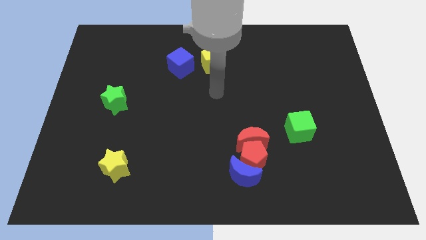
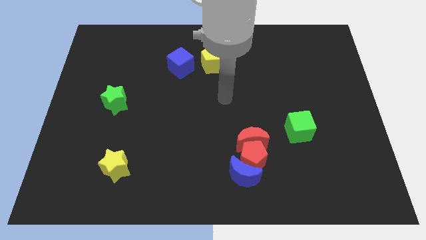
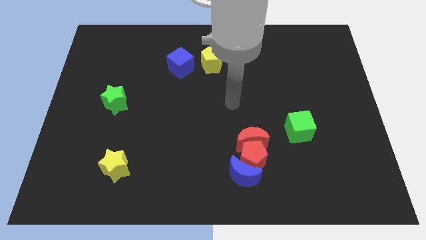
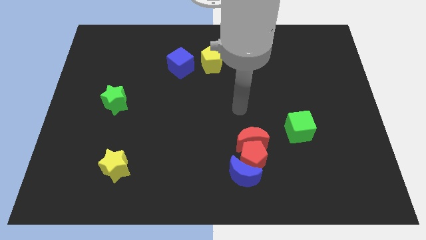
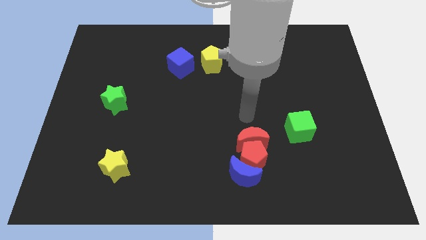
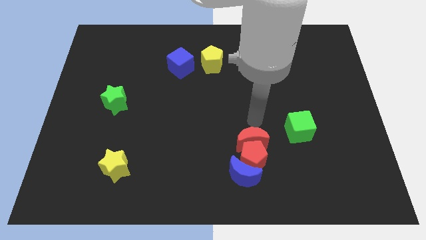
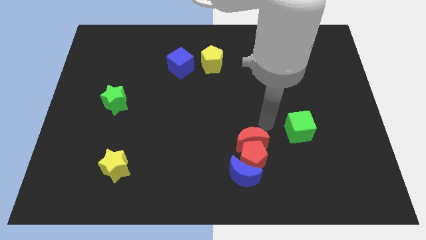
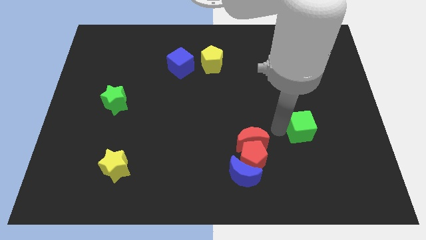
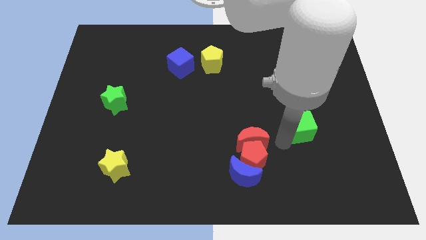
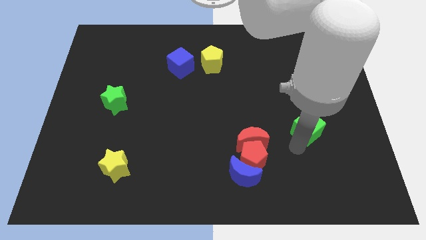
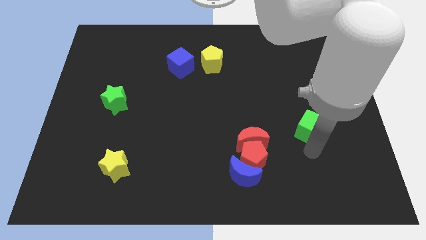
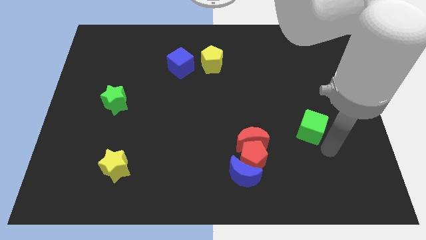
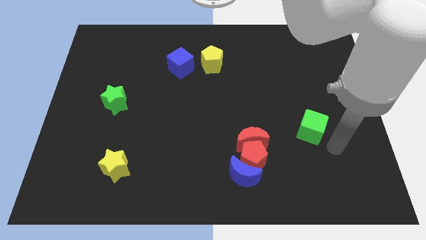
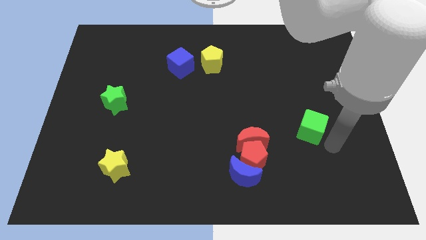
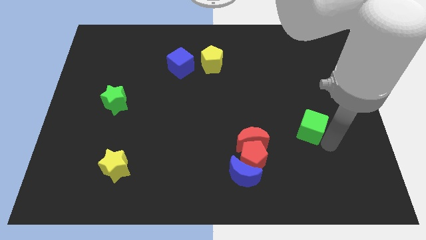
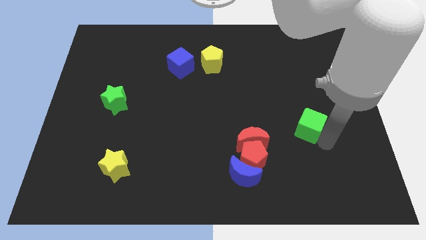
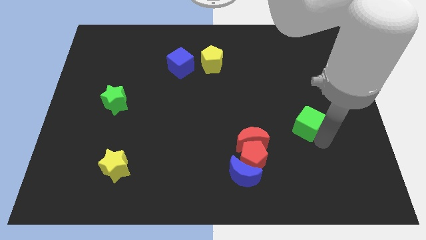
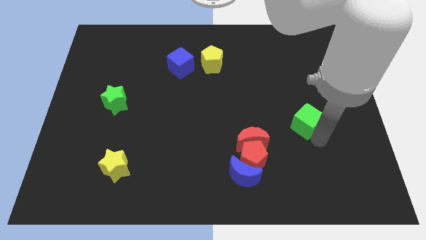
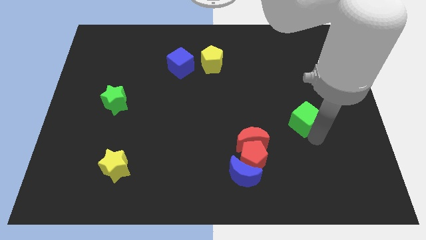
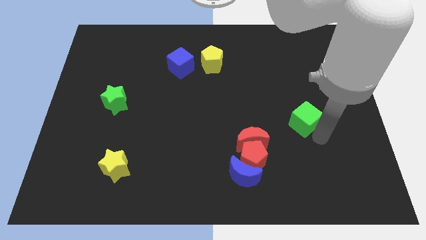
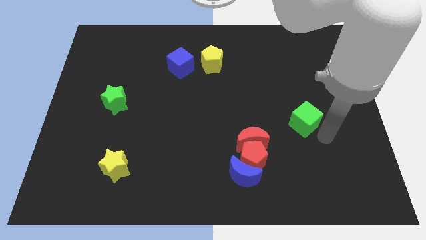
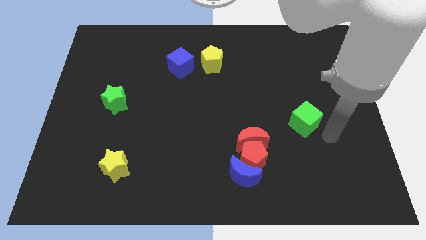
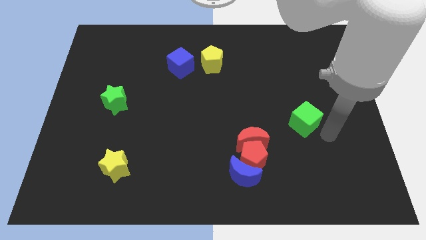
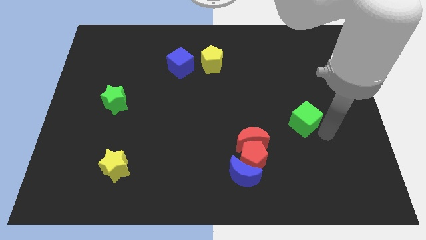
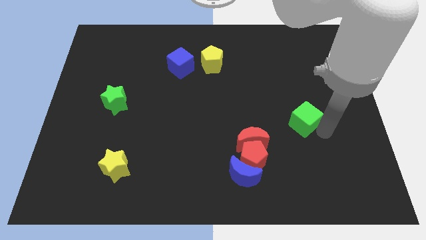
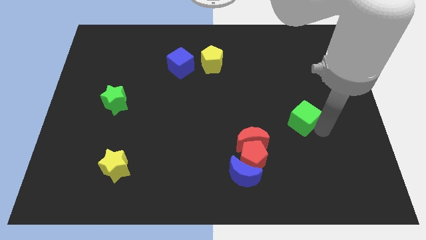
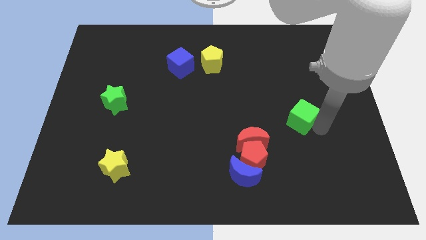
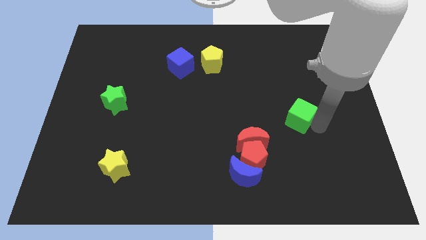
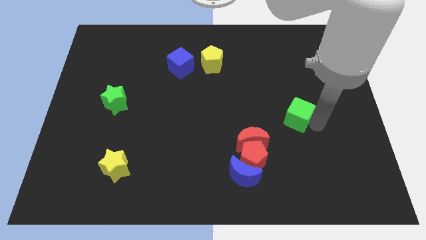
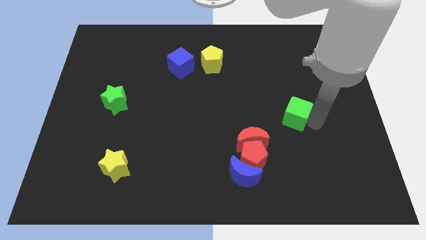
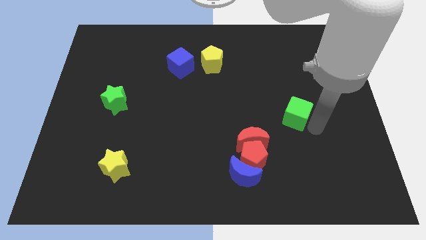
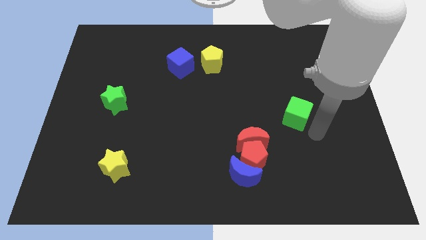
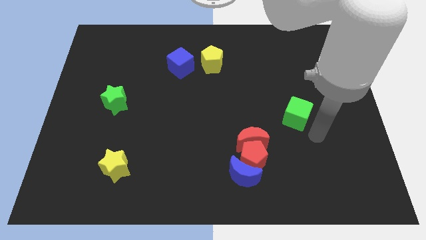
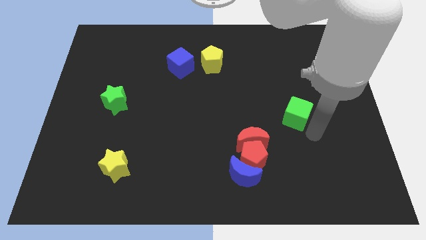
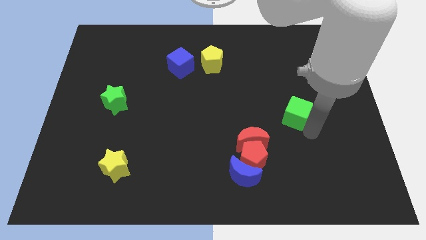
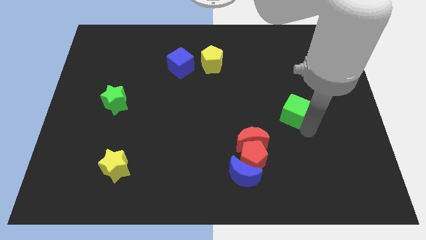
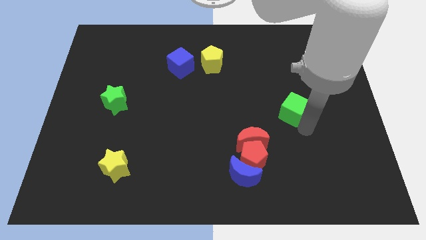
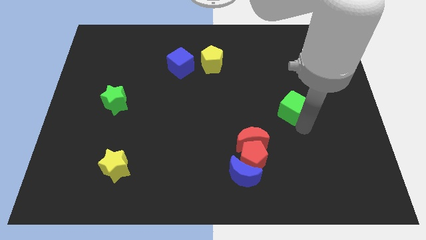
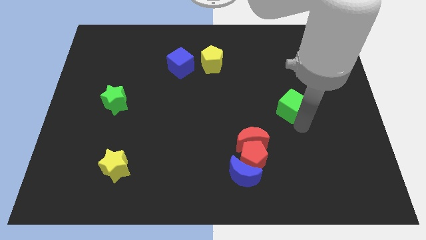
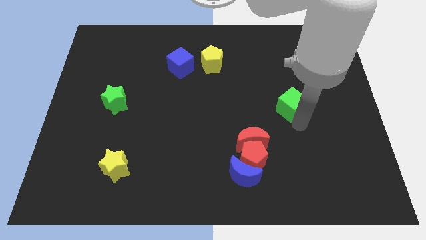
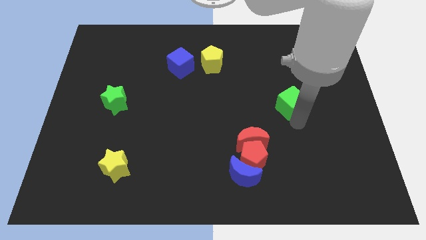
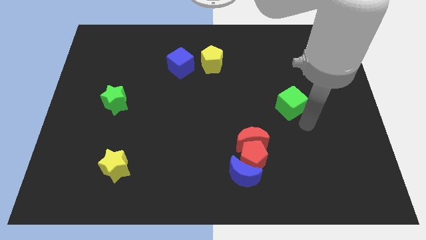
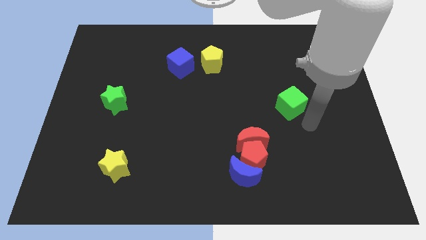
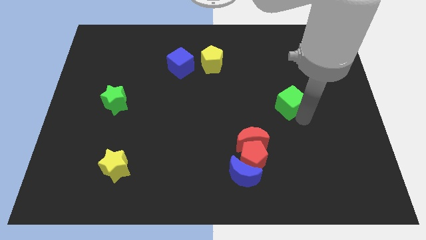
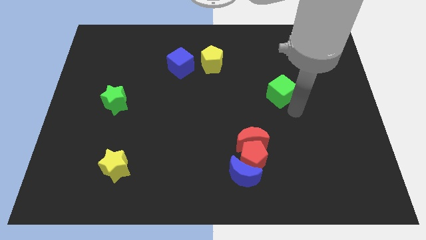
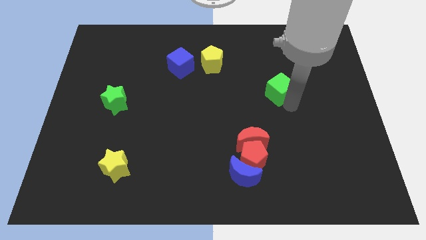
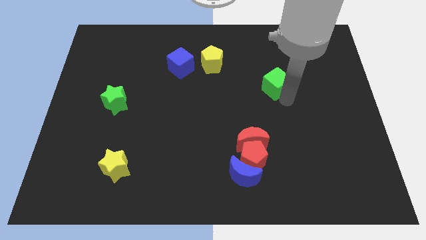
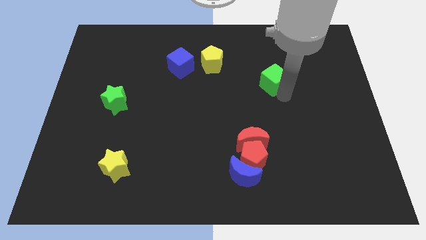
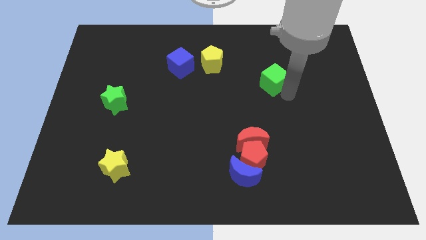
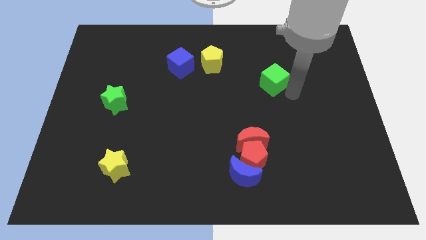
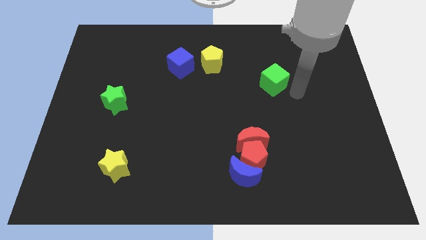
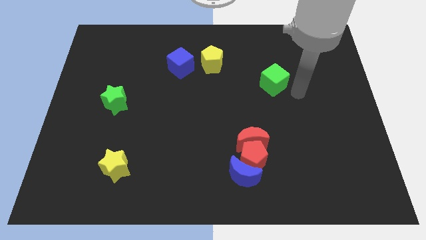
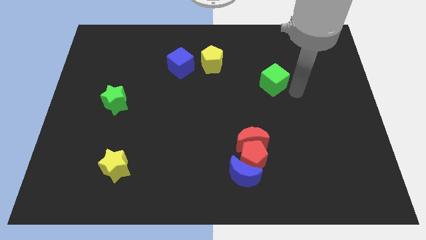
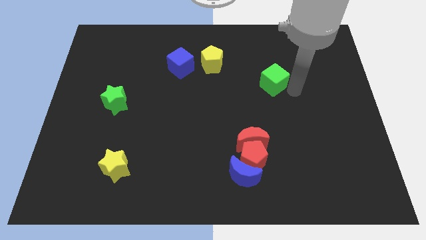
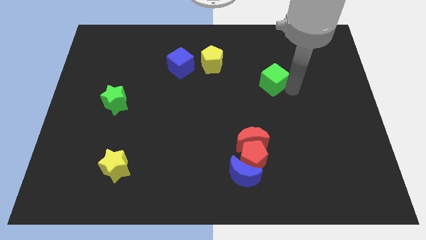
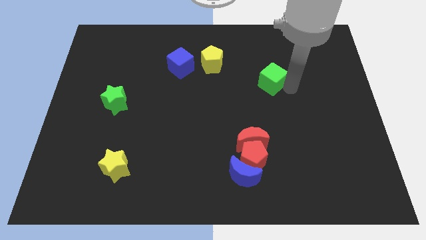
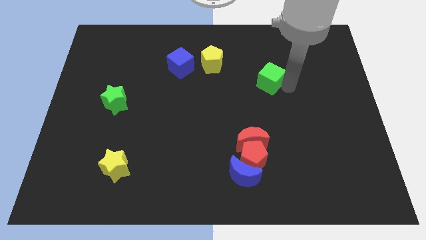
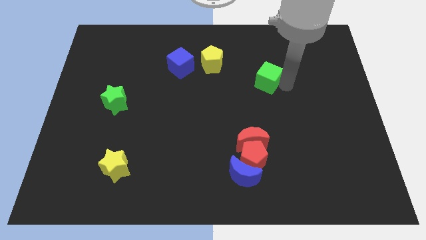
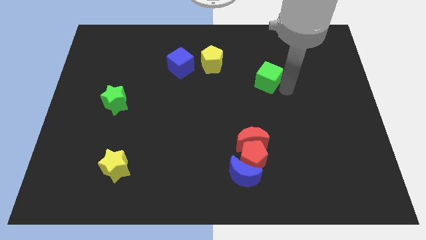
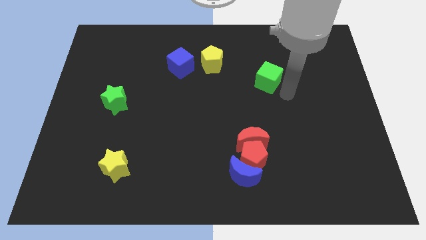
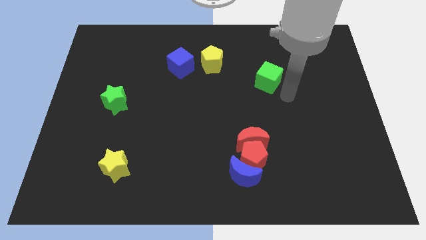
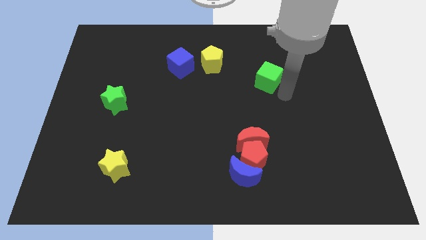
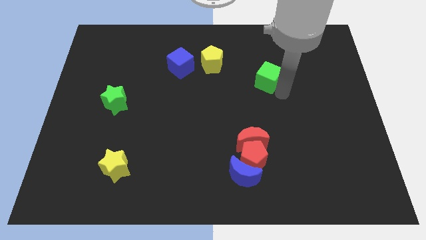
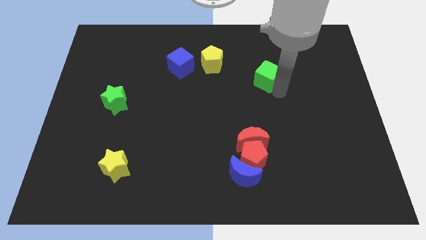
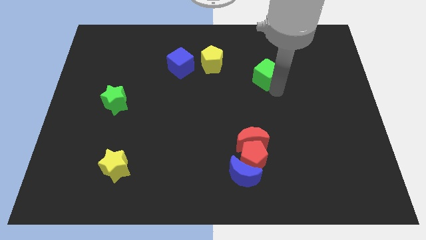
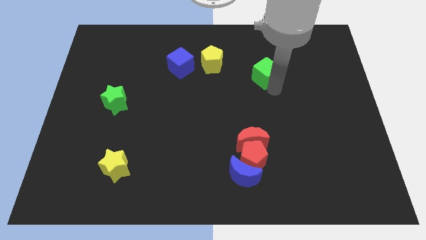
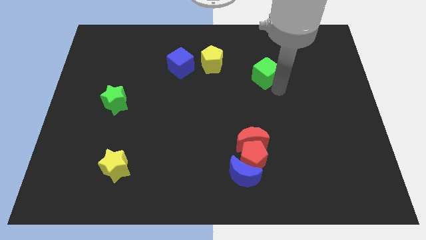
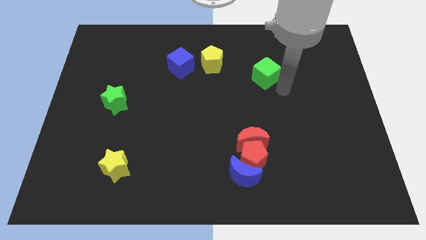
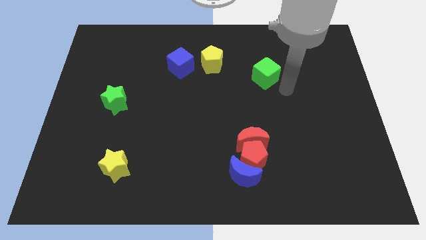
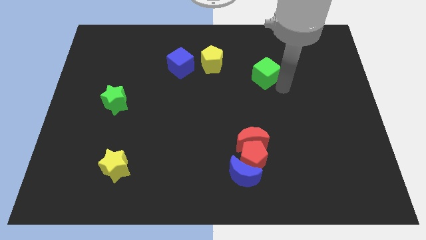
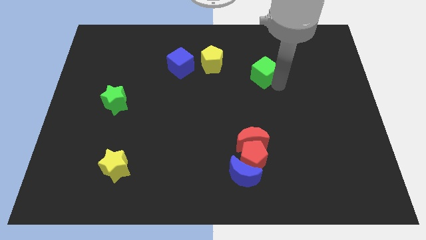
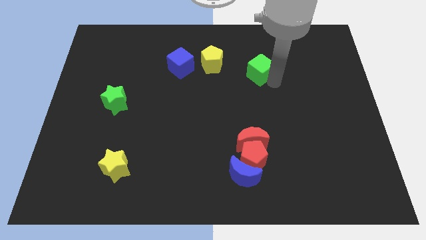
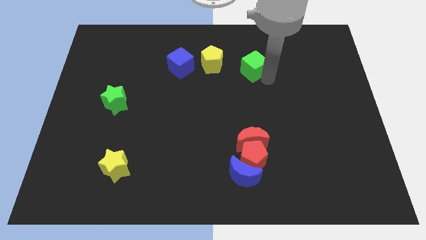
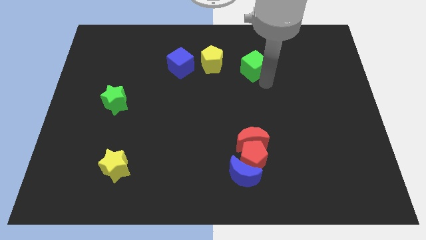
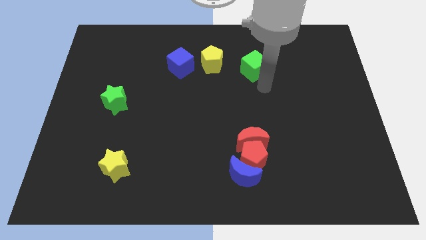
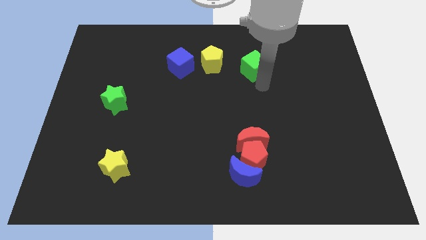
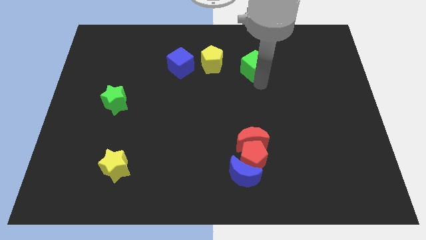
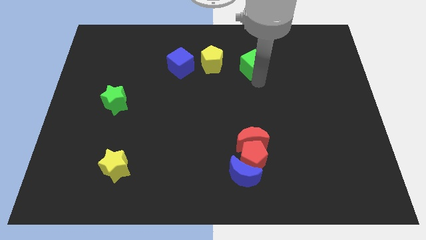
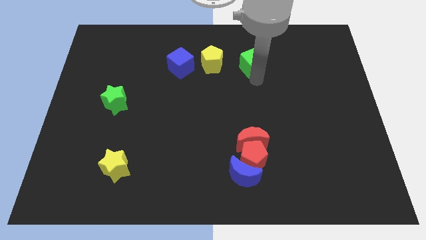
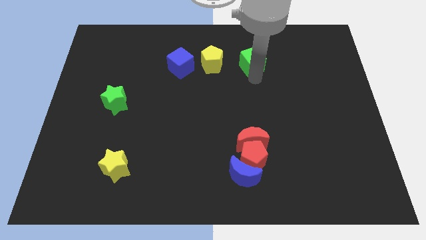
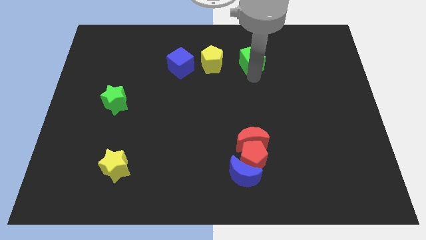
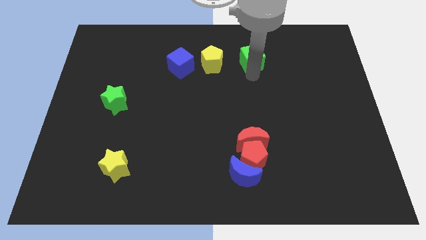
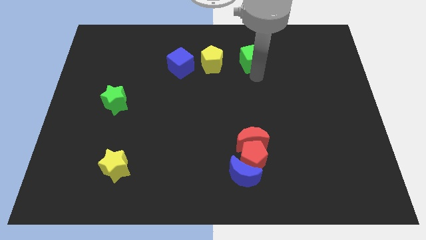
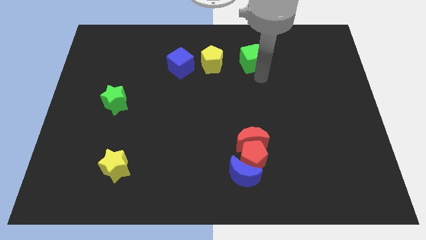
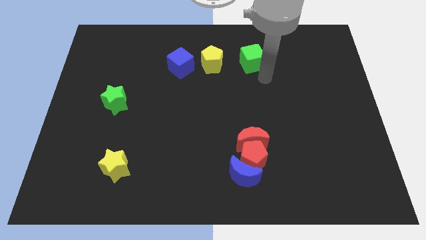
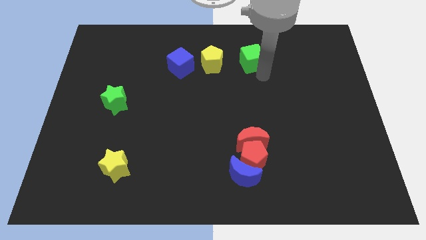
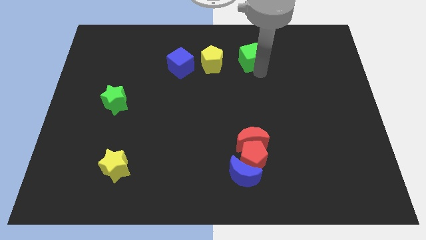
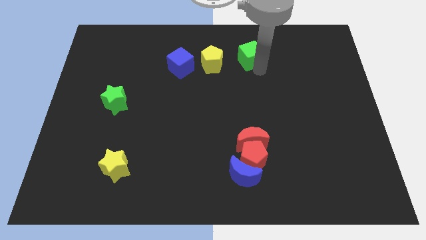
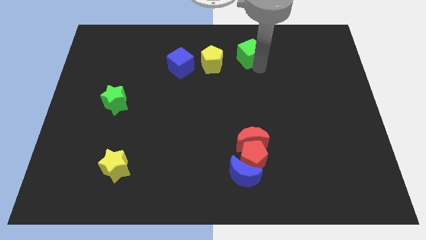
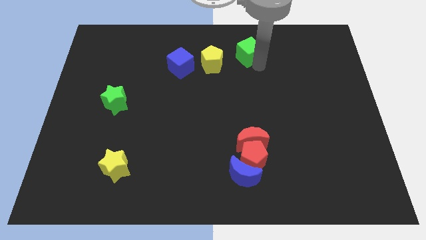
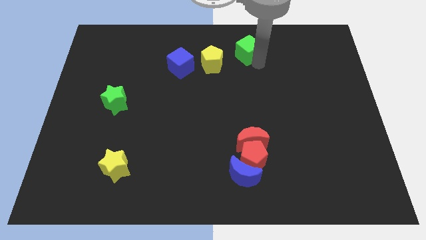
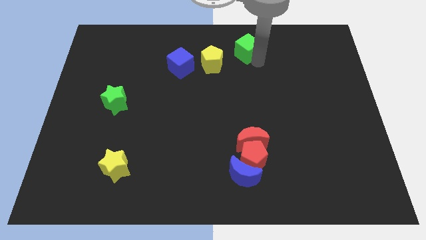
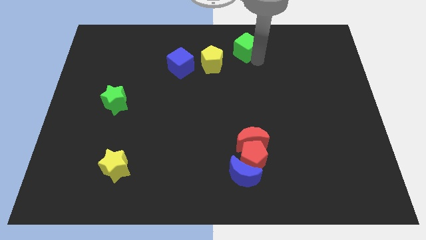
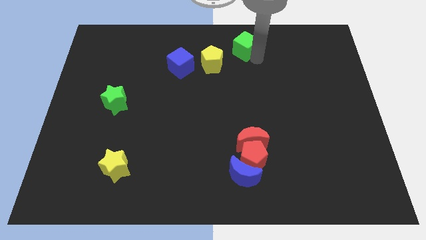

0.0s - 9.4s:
push the green cube to the top side
